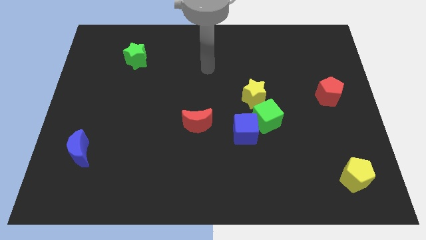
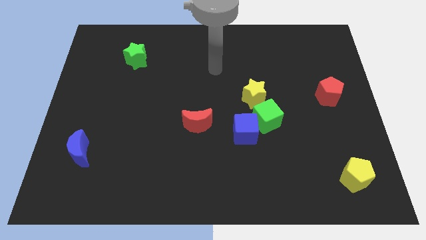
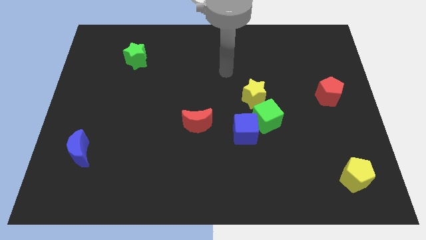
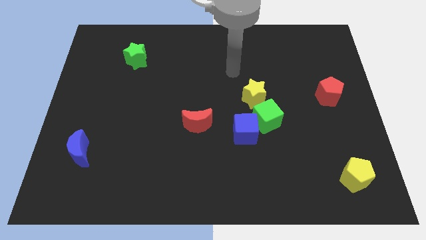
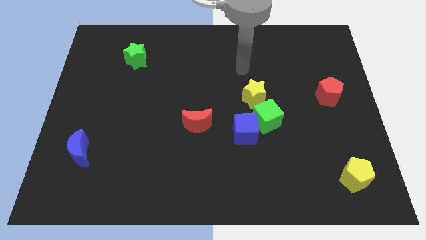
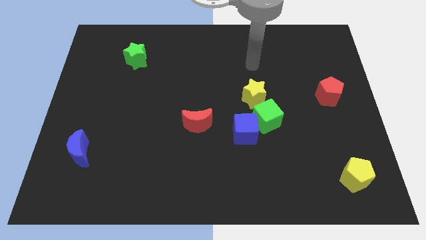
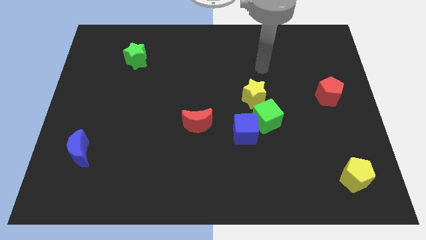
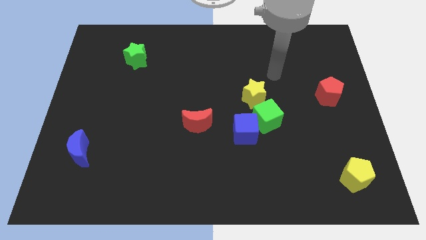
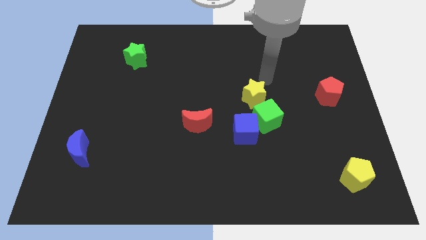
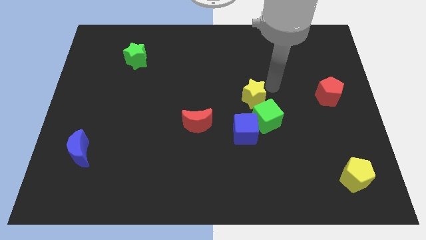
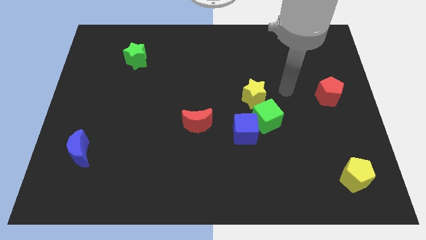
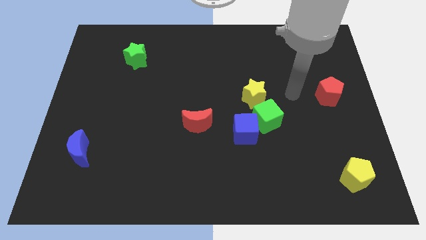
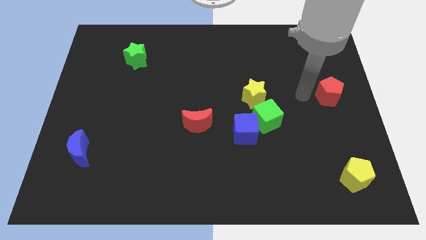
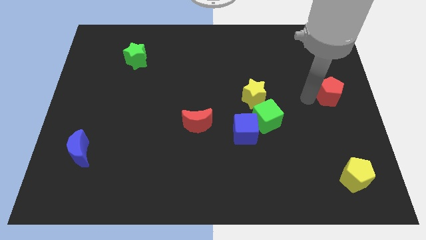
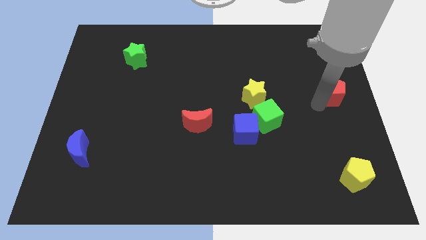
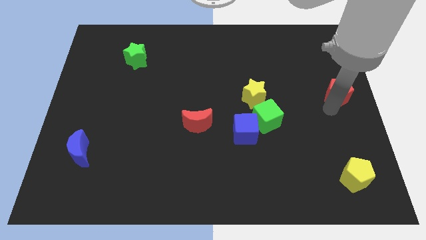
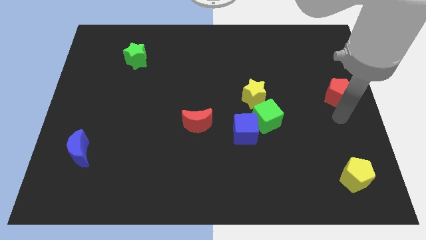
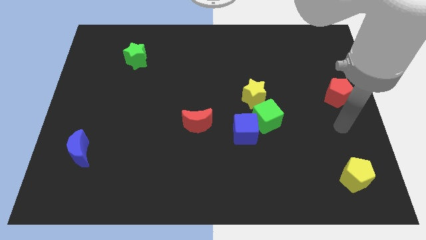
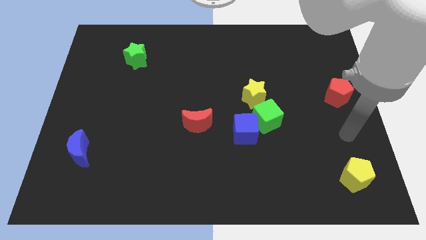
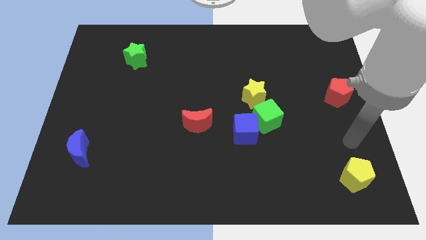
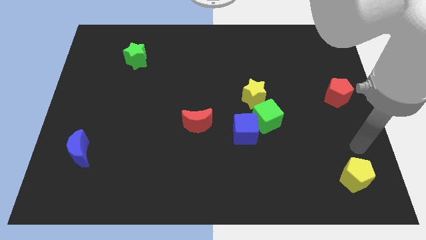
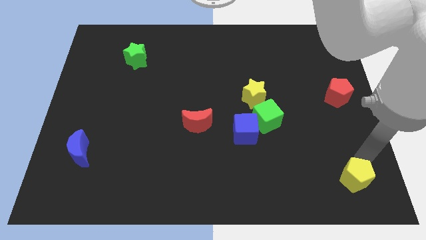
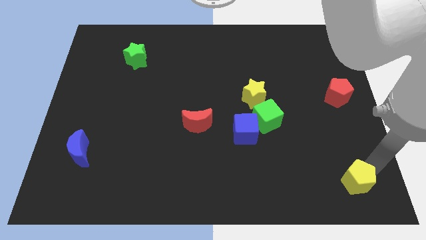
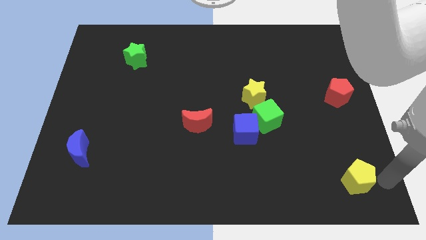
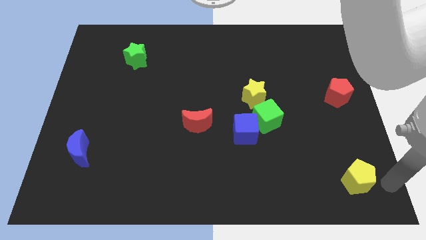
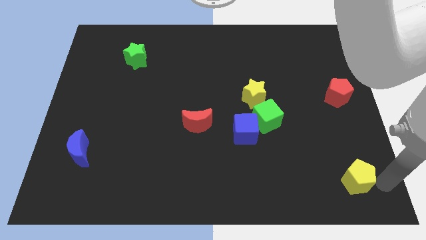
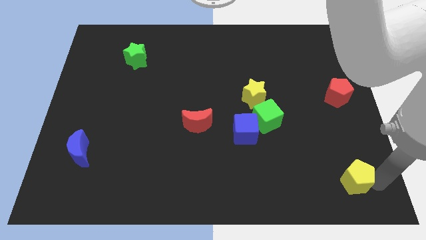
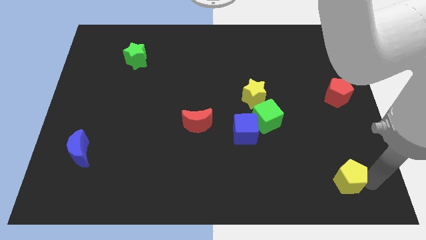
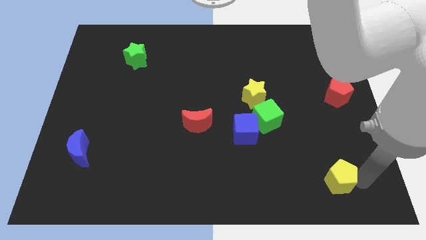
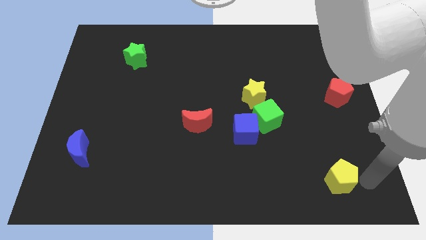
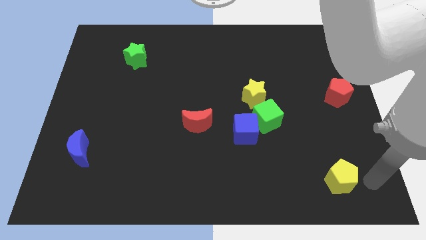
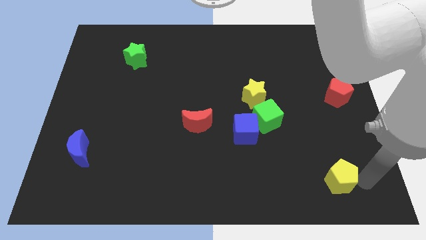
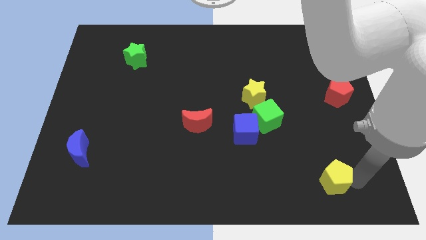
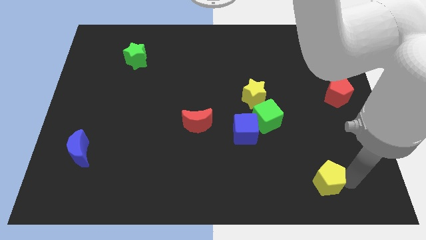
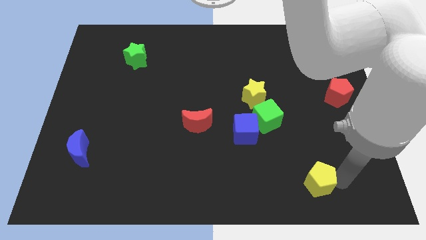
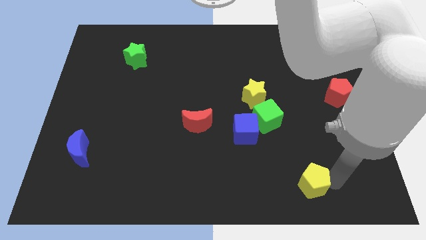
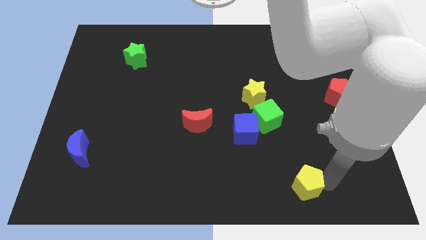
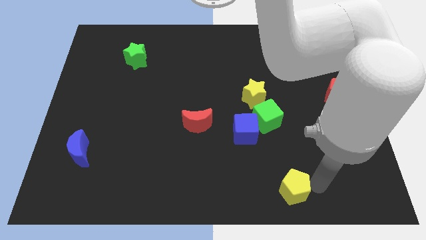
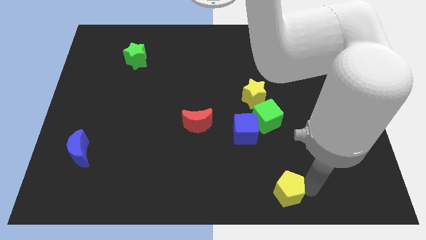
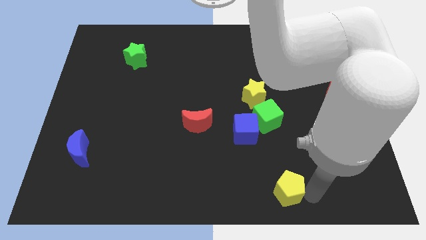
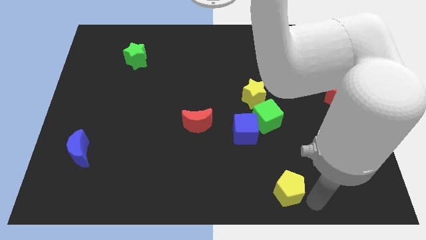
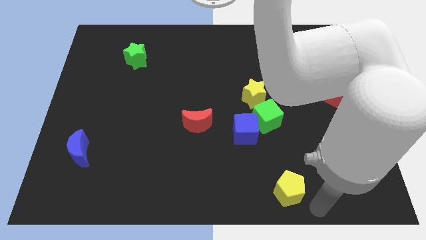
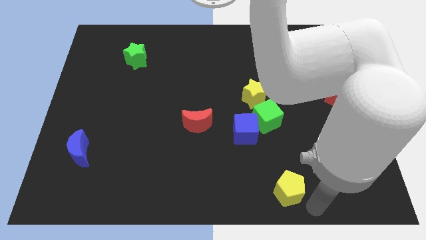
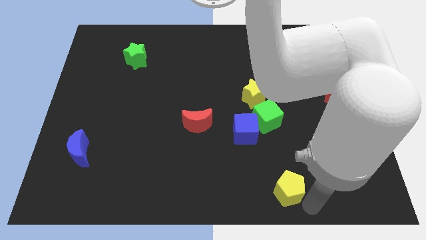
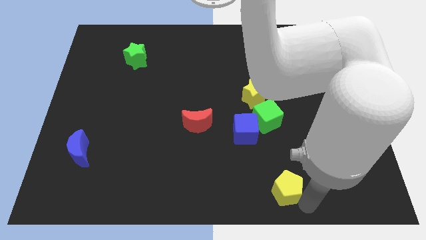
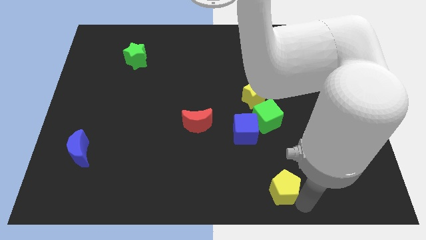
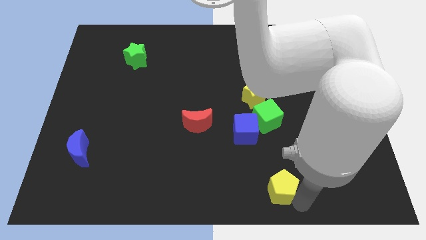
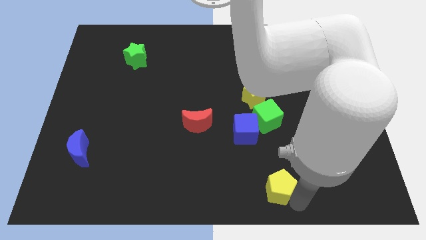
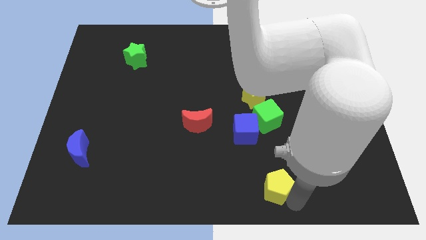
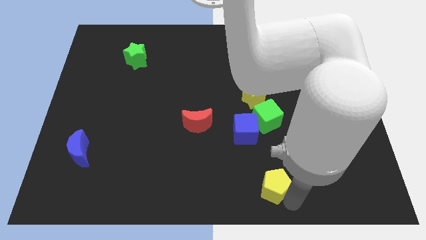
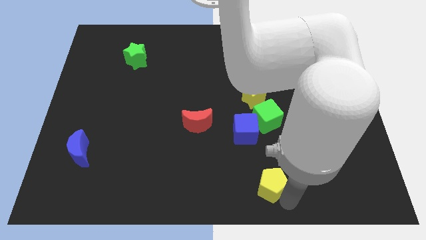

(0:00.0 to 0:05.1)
slide the yellow pentagon to the bottom side of the blue cube

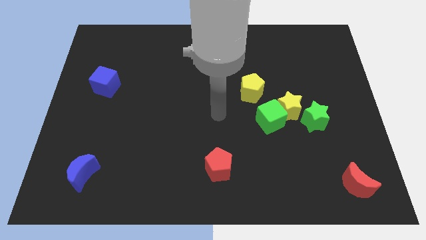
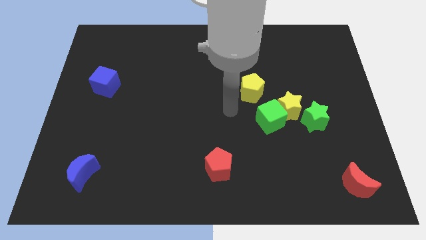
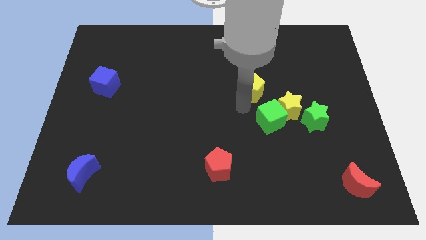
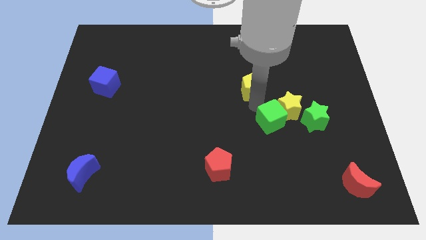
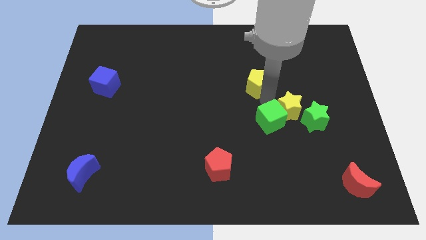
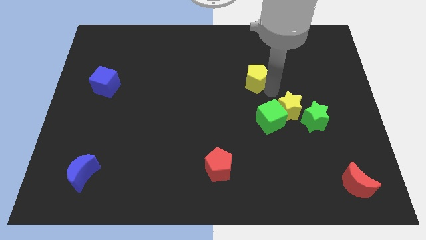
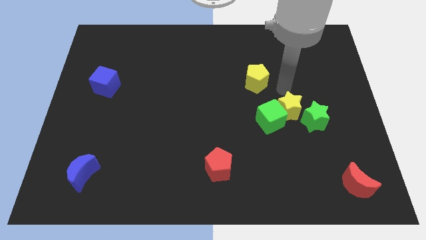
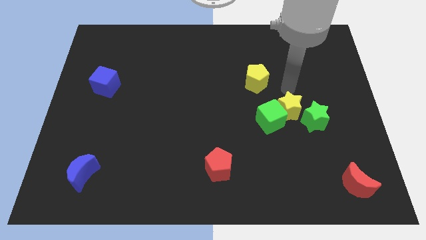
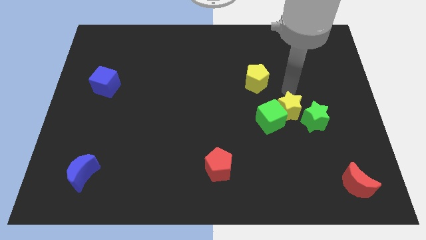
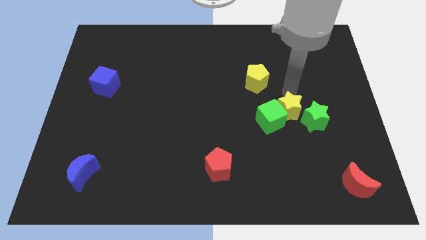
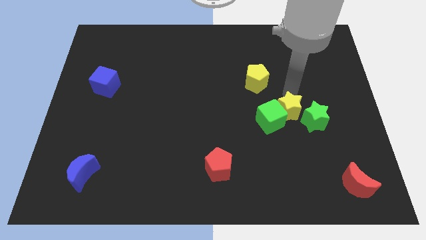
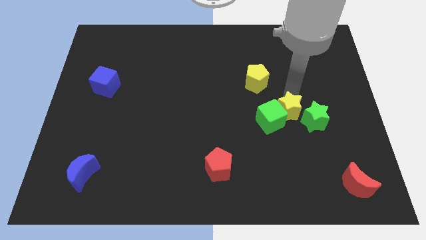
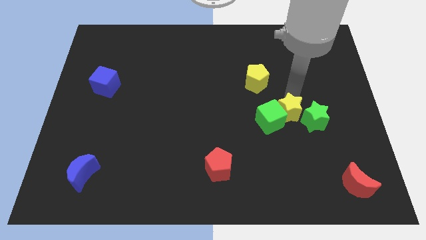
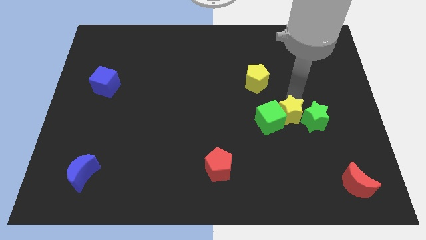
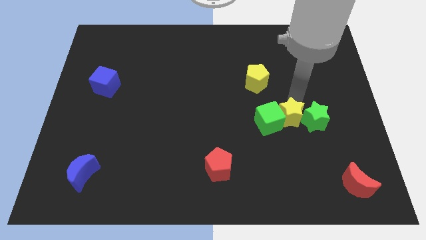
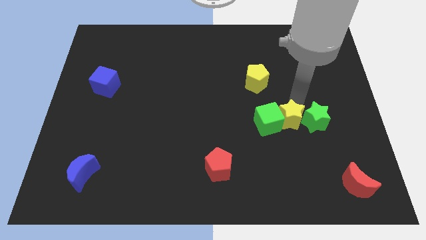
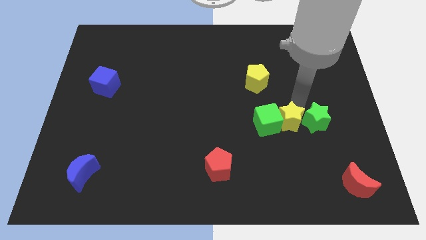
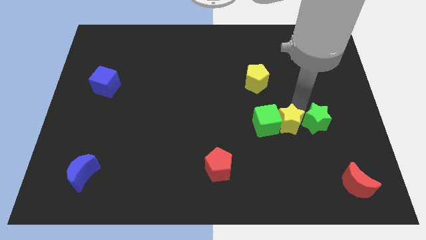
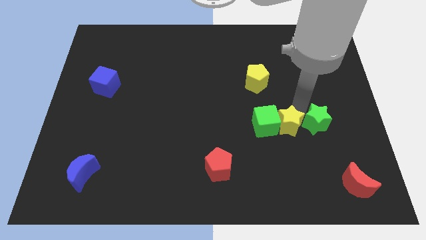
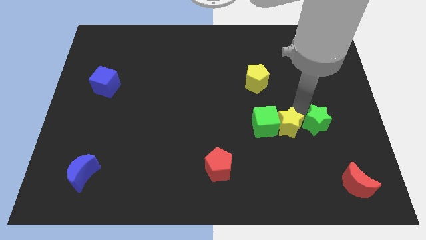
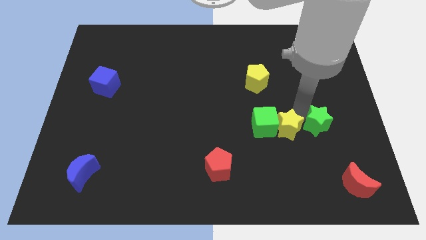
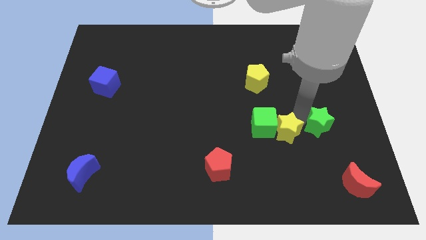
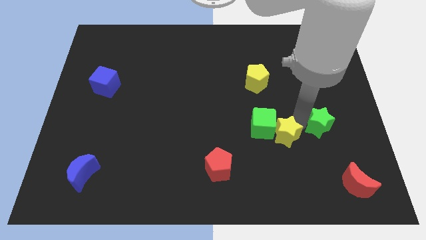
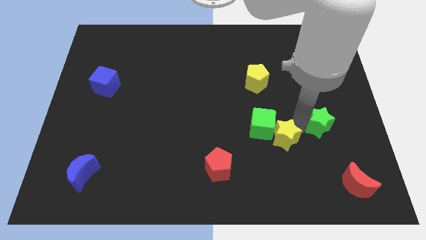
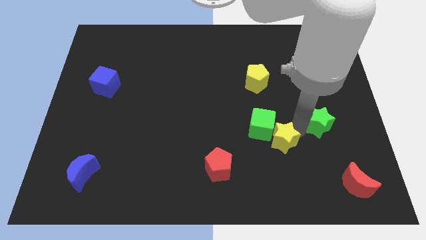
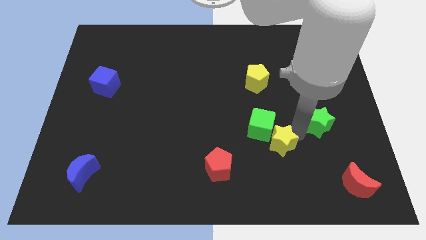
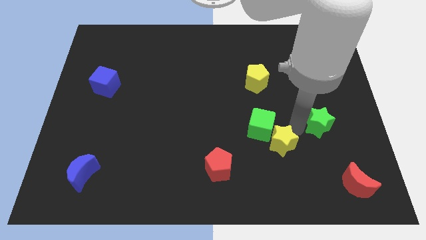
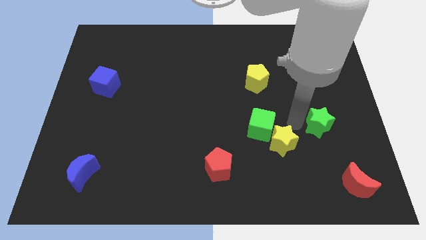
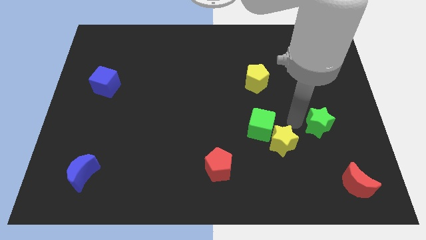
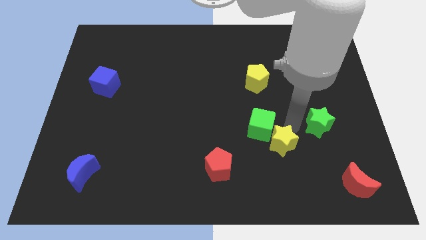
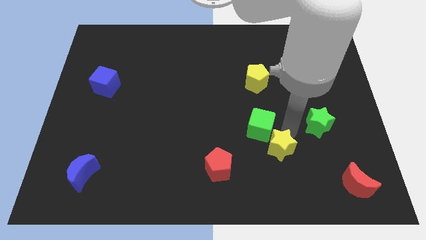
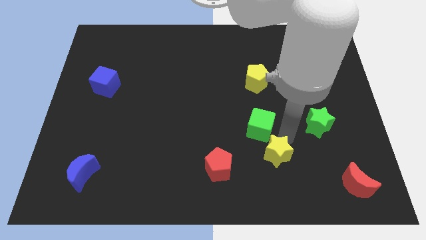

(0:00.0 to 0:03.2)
move the yellow star right of the red pentagon
